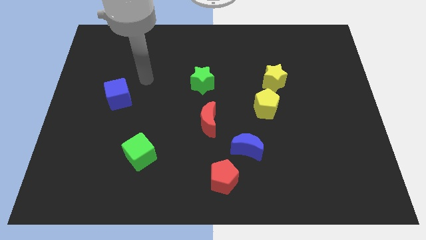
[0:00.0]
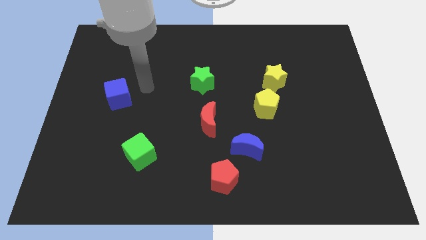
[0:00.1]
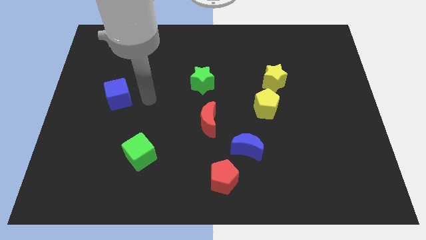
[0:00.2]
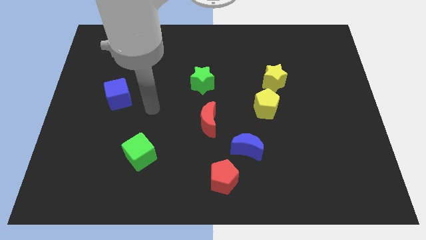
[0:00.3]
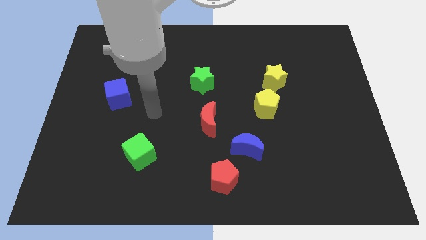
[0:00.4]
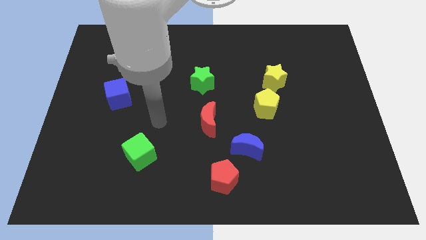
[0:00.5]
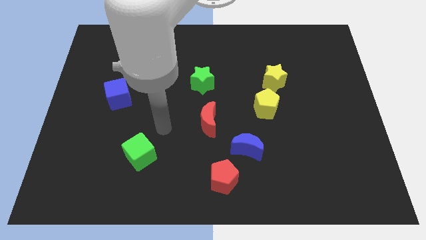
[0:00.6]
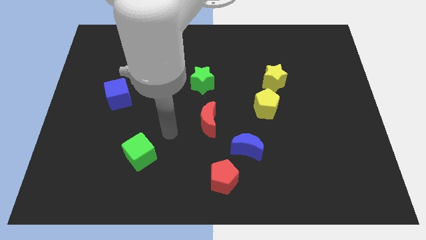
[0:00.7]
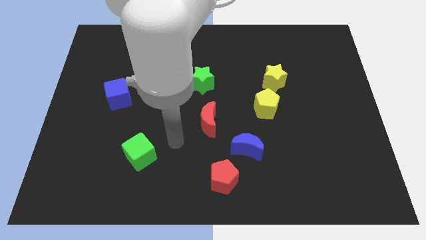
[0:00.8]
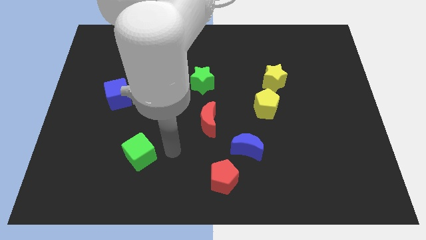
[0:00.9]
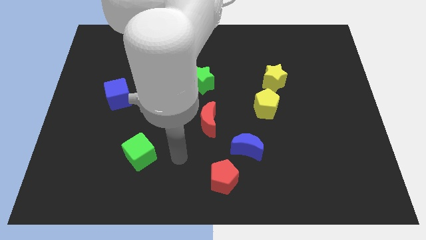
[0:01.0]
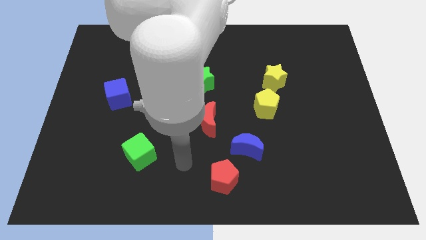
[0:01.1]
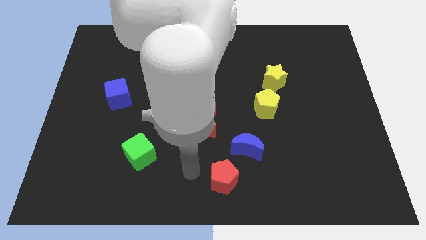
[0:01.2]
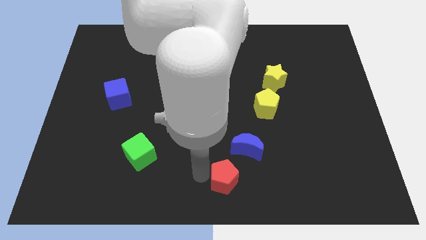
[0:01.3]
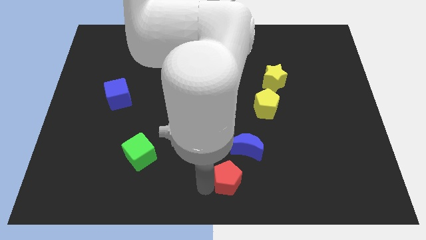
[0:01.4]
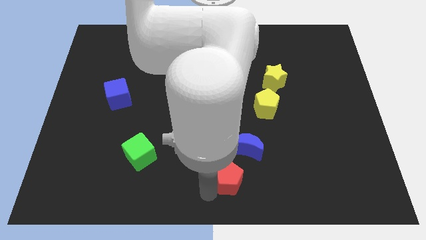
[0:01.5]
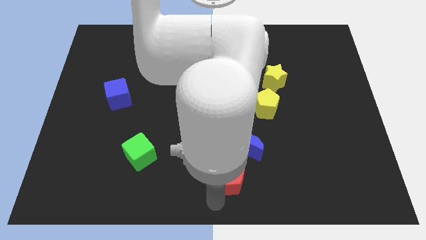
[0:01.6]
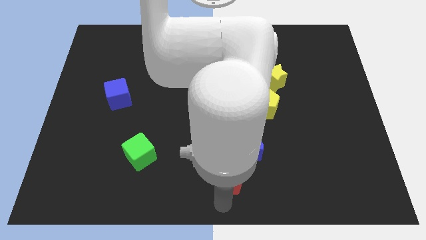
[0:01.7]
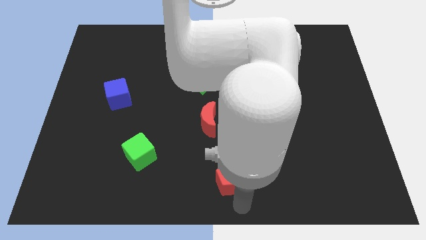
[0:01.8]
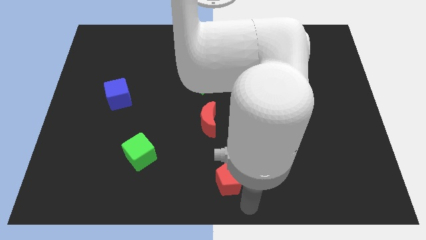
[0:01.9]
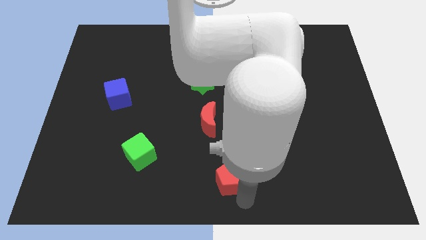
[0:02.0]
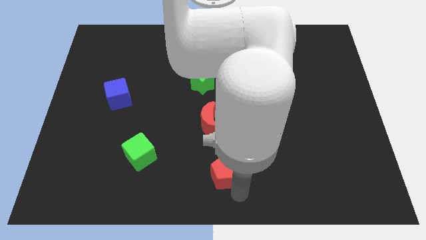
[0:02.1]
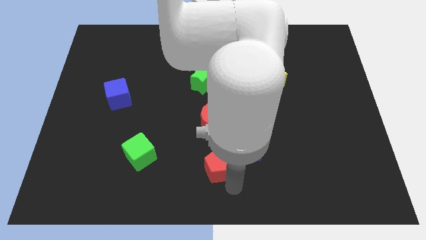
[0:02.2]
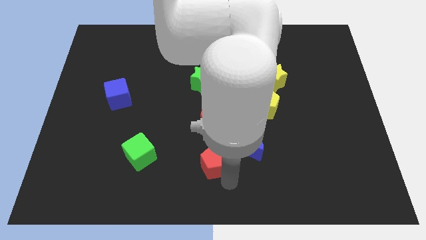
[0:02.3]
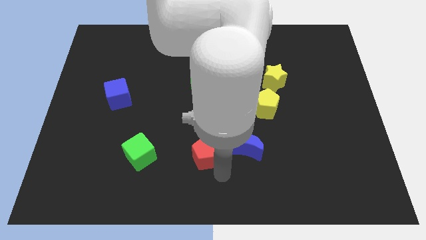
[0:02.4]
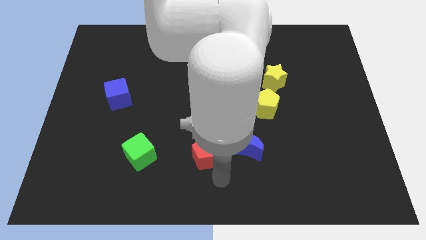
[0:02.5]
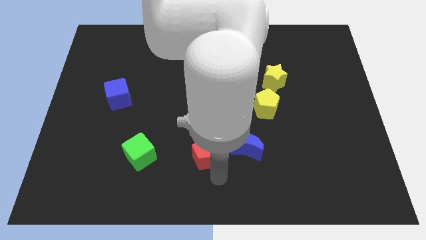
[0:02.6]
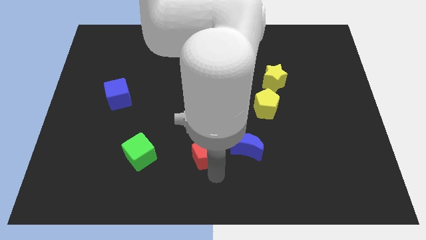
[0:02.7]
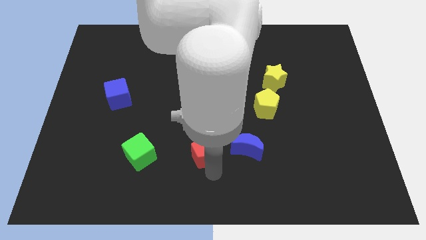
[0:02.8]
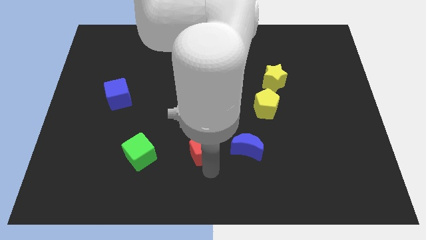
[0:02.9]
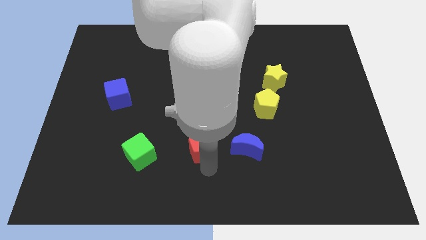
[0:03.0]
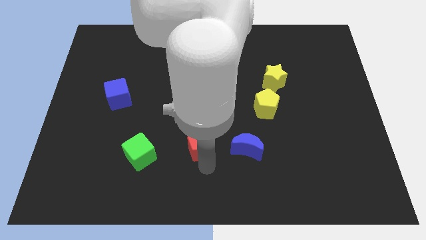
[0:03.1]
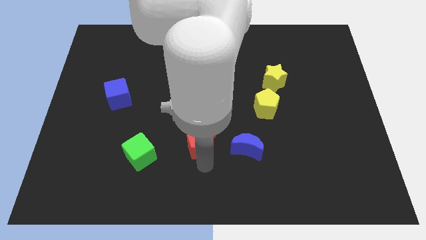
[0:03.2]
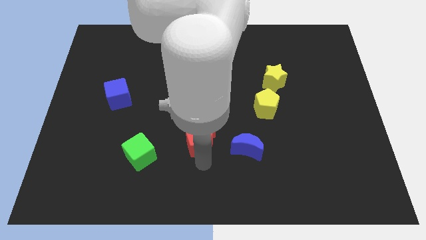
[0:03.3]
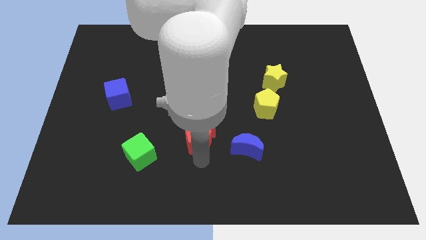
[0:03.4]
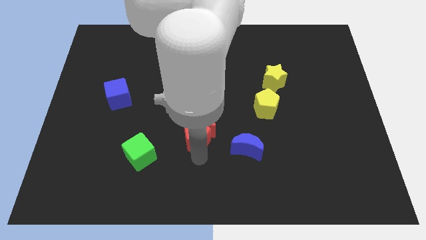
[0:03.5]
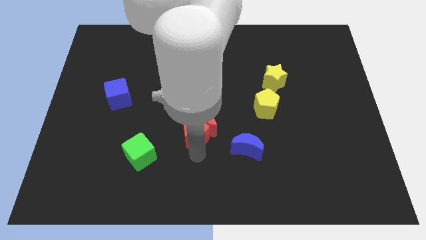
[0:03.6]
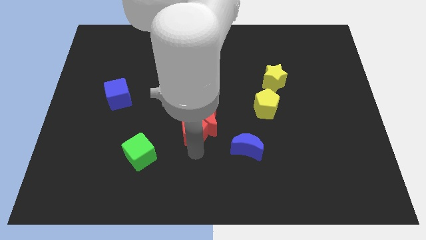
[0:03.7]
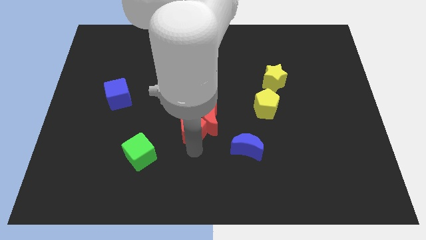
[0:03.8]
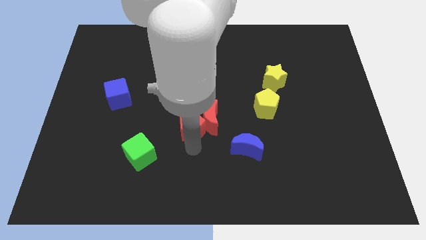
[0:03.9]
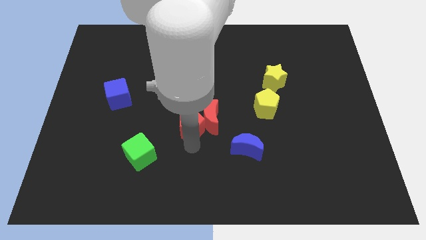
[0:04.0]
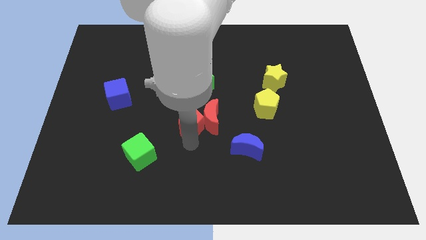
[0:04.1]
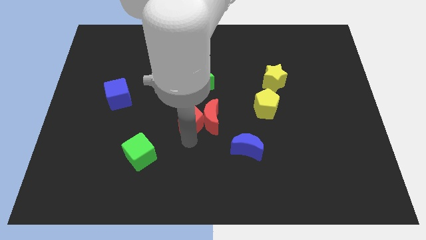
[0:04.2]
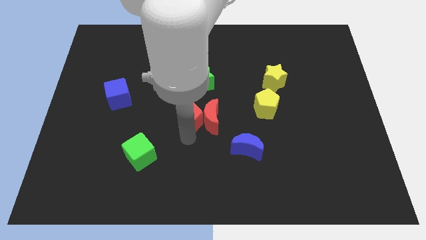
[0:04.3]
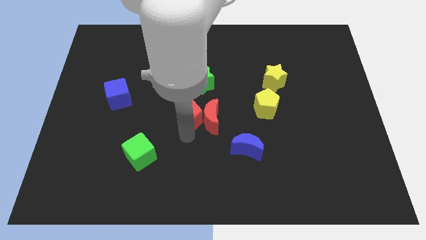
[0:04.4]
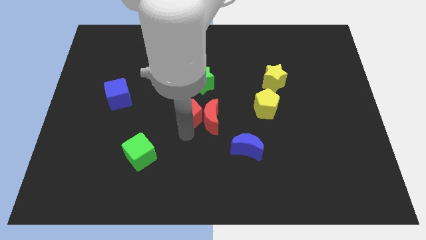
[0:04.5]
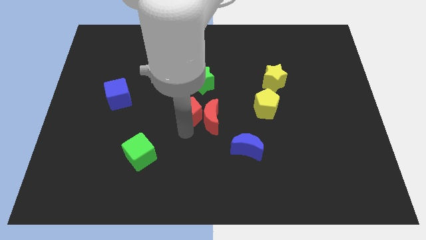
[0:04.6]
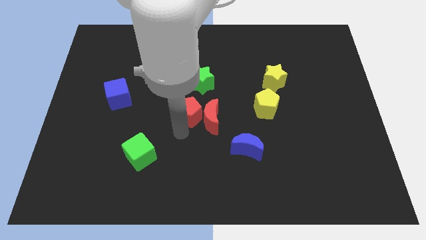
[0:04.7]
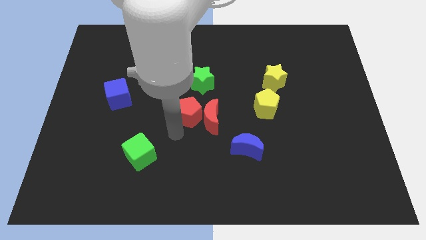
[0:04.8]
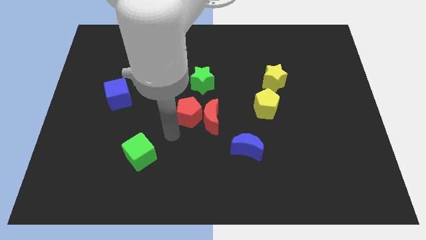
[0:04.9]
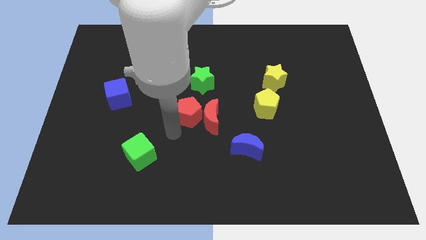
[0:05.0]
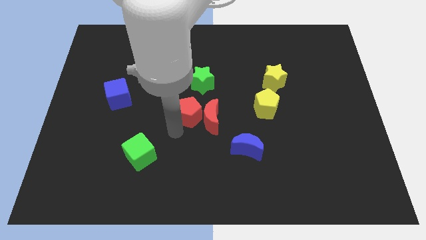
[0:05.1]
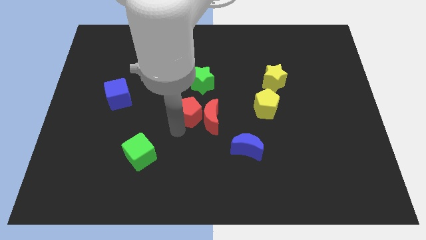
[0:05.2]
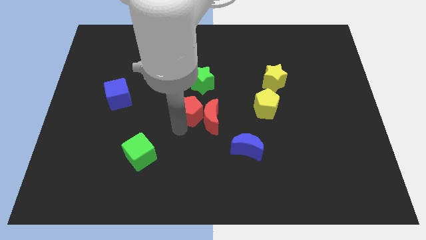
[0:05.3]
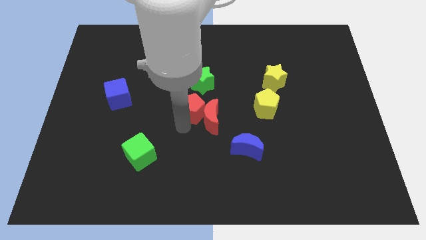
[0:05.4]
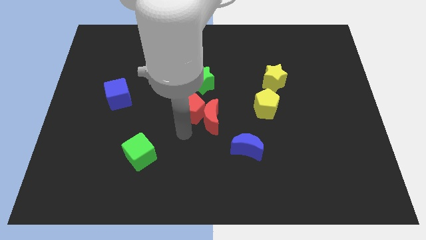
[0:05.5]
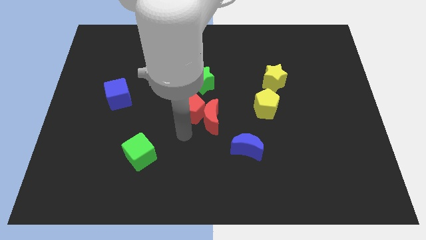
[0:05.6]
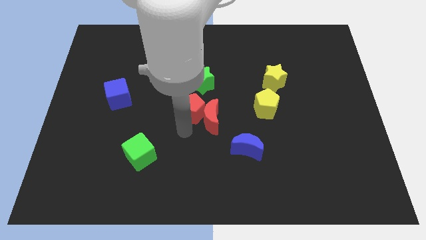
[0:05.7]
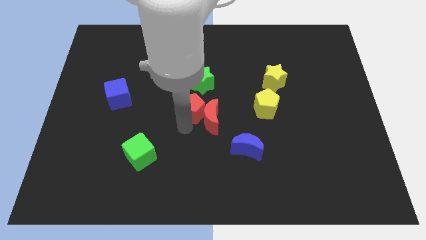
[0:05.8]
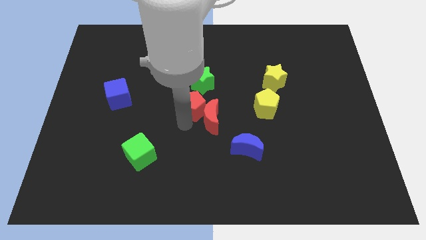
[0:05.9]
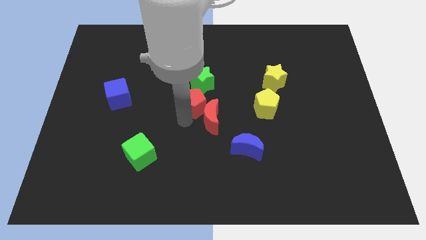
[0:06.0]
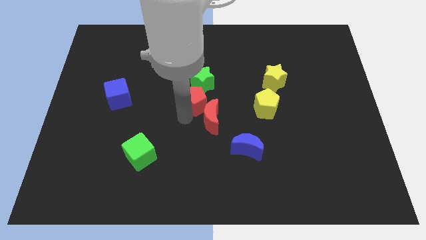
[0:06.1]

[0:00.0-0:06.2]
push the red pentagon close to the green star

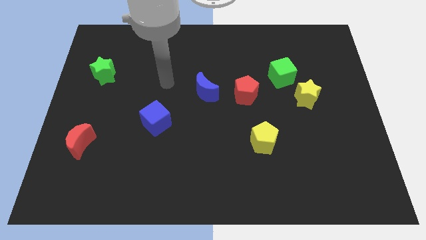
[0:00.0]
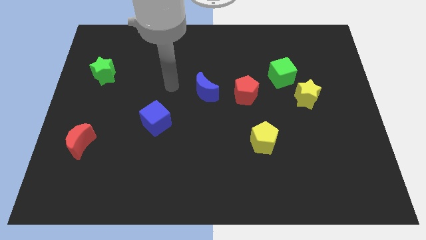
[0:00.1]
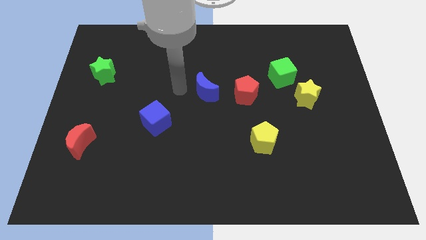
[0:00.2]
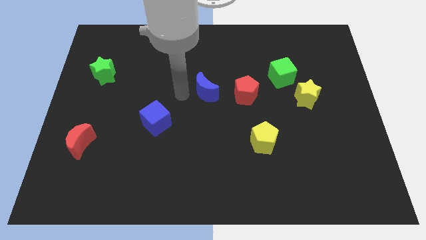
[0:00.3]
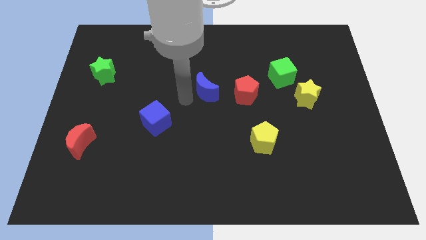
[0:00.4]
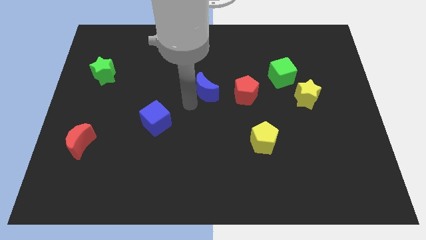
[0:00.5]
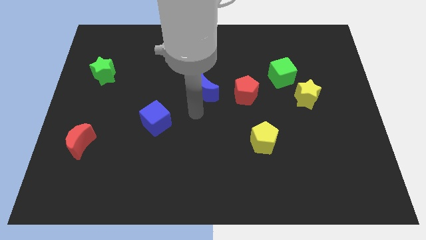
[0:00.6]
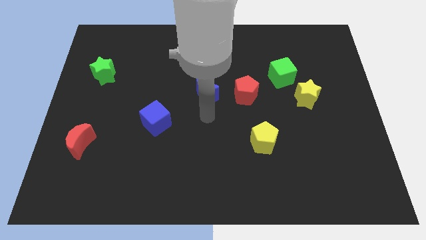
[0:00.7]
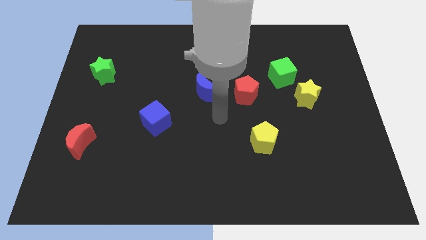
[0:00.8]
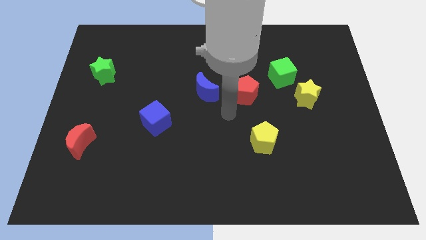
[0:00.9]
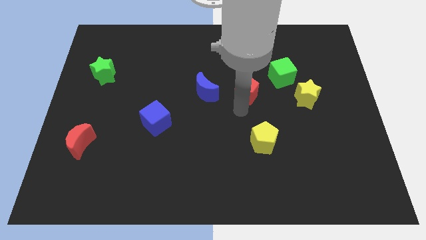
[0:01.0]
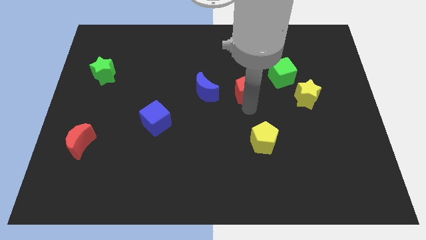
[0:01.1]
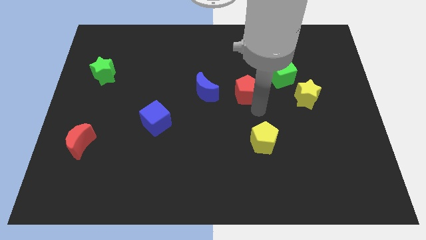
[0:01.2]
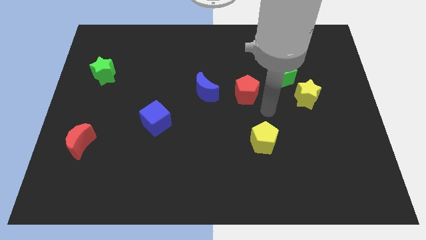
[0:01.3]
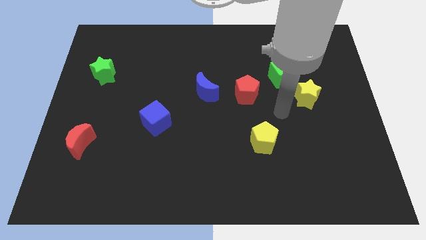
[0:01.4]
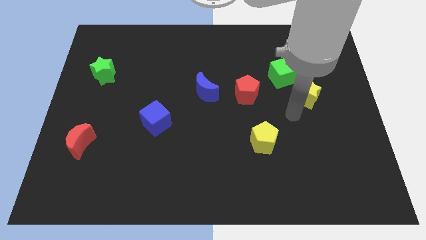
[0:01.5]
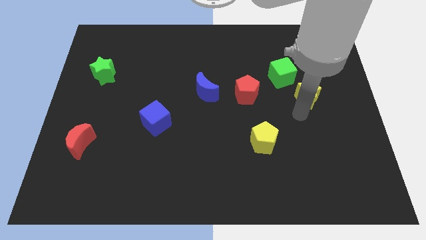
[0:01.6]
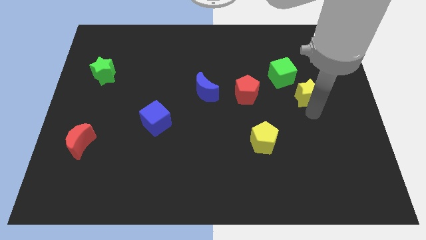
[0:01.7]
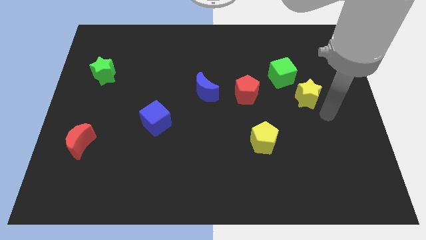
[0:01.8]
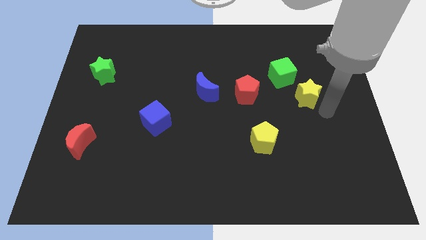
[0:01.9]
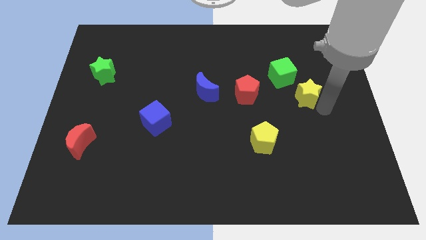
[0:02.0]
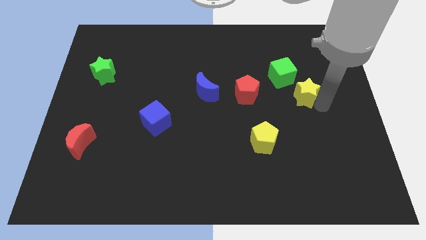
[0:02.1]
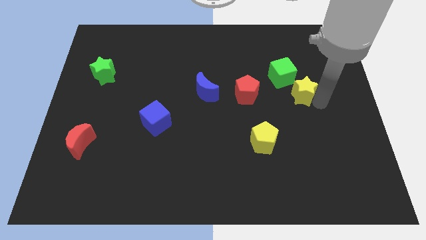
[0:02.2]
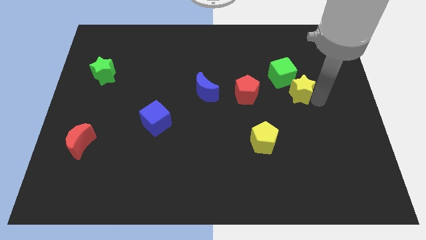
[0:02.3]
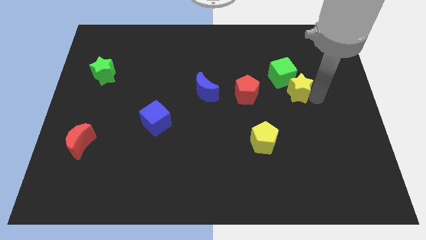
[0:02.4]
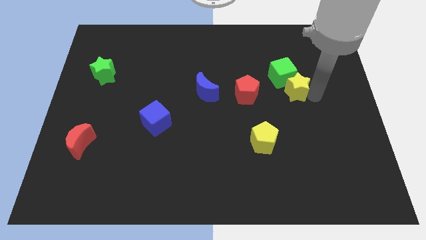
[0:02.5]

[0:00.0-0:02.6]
move the yellow star towards the green cube
